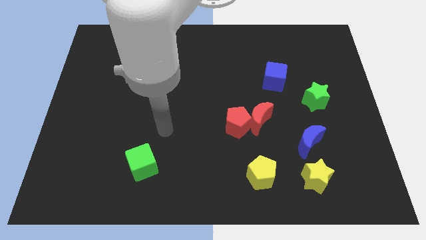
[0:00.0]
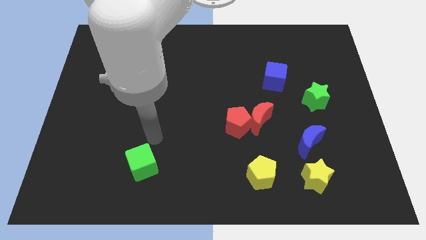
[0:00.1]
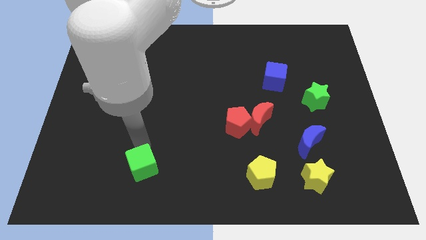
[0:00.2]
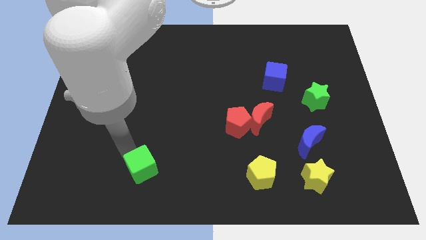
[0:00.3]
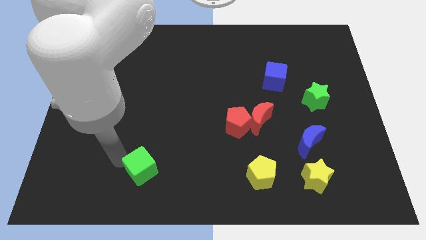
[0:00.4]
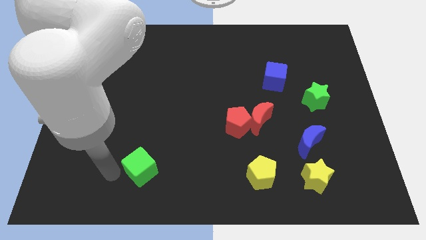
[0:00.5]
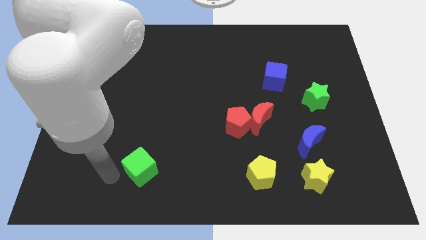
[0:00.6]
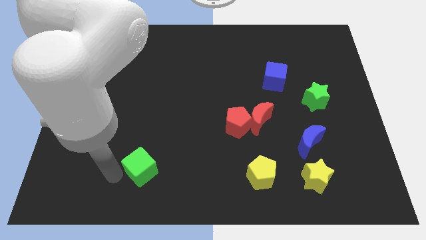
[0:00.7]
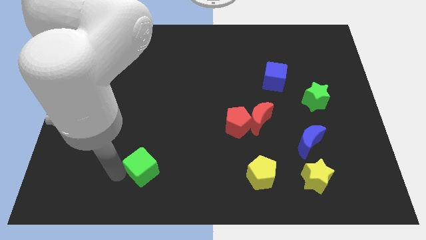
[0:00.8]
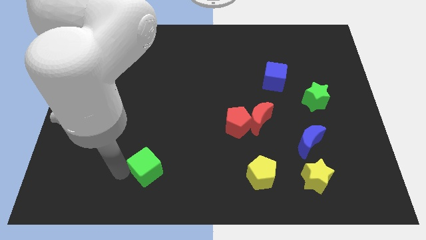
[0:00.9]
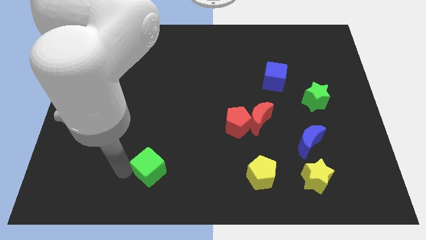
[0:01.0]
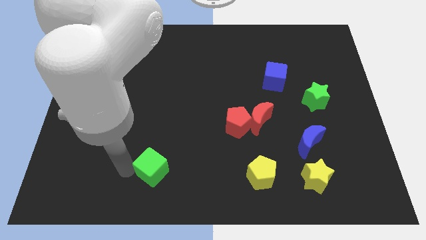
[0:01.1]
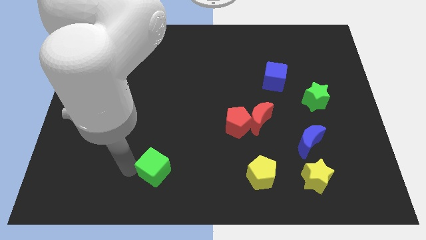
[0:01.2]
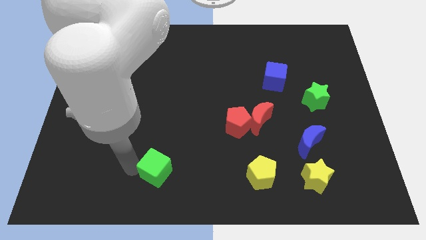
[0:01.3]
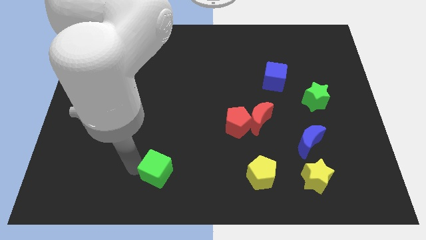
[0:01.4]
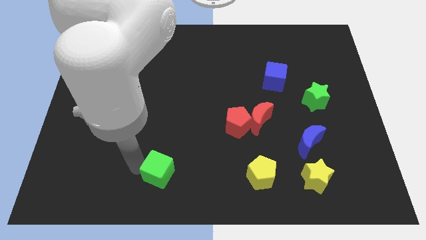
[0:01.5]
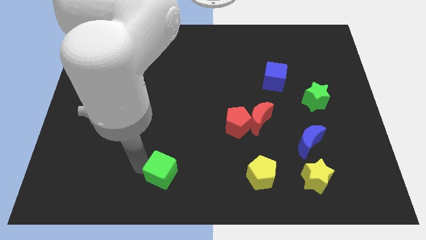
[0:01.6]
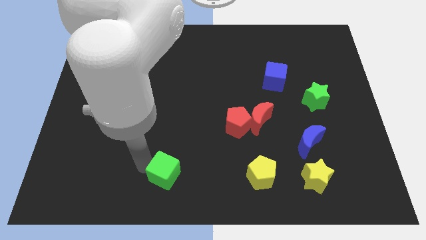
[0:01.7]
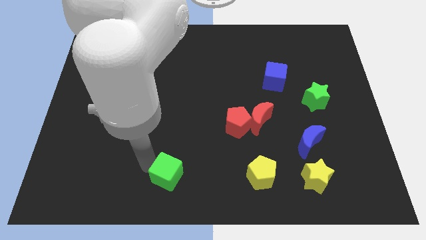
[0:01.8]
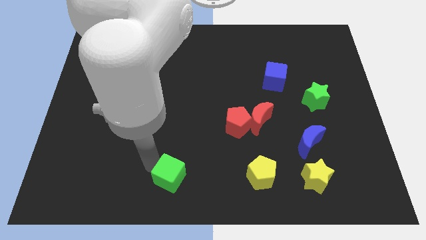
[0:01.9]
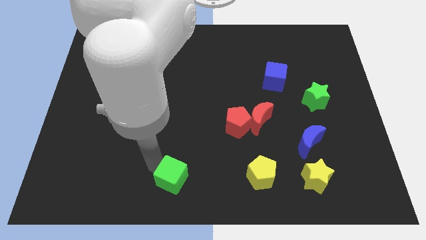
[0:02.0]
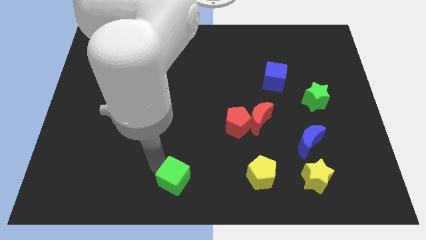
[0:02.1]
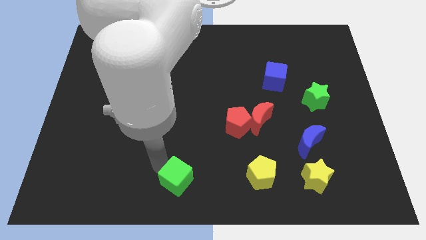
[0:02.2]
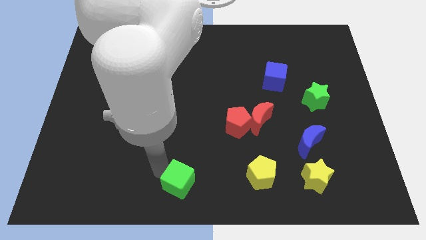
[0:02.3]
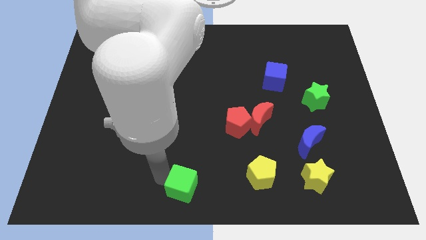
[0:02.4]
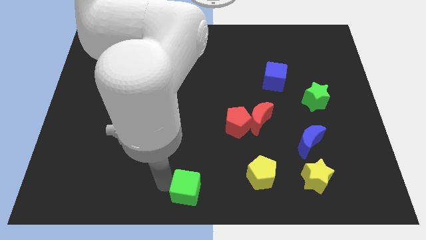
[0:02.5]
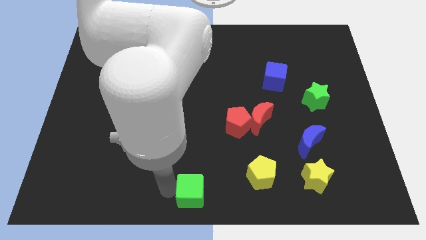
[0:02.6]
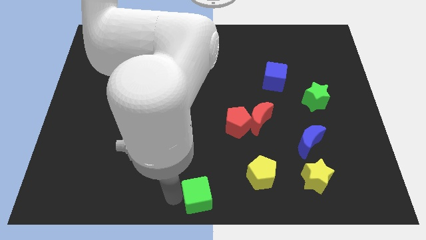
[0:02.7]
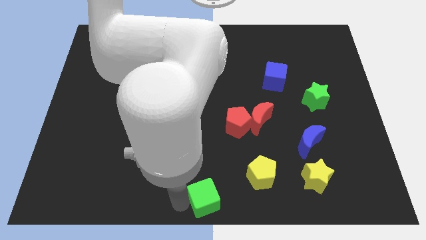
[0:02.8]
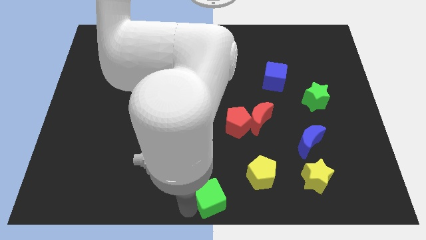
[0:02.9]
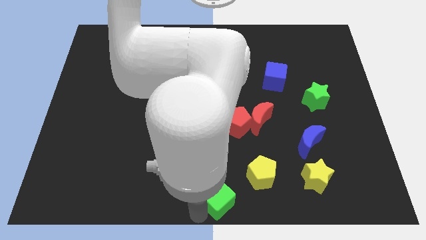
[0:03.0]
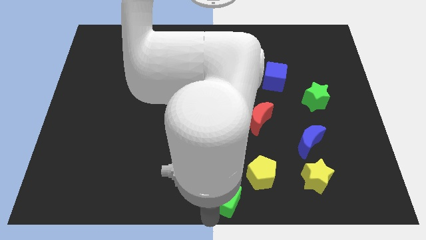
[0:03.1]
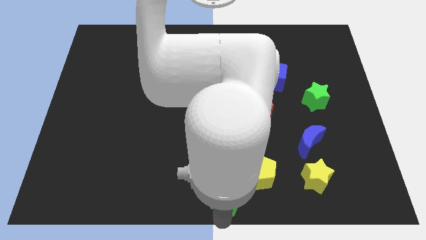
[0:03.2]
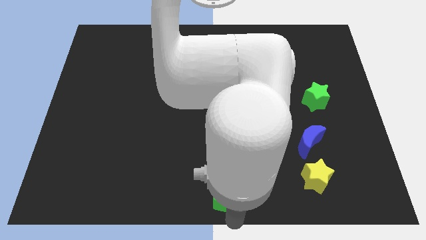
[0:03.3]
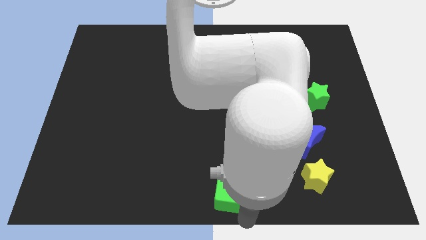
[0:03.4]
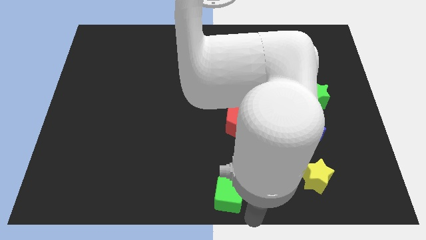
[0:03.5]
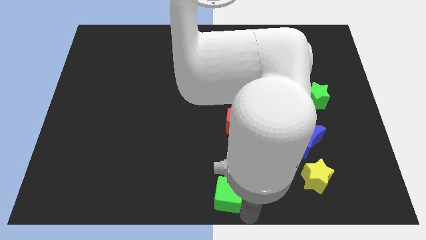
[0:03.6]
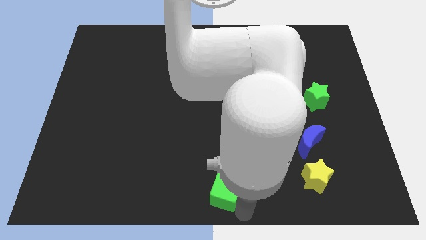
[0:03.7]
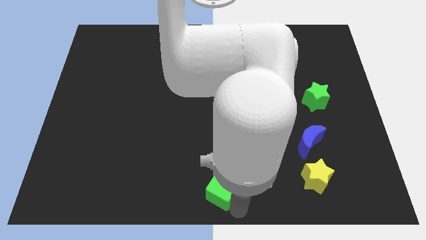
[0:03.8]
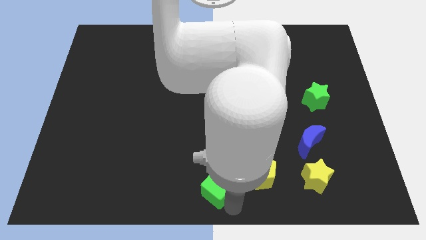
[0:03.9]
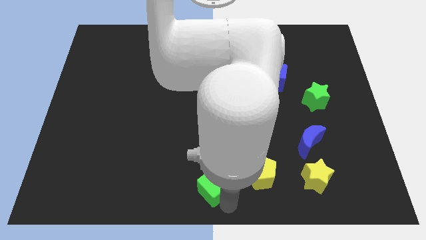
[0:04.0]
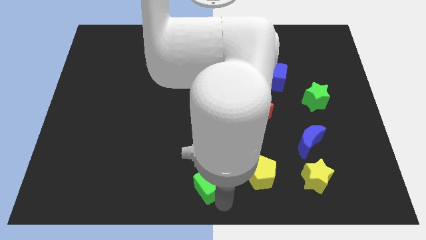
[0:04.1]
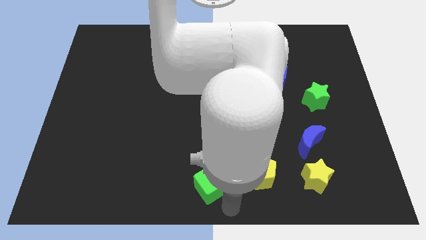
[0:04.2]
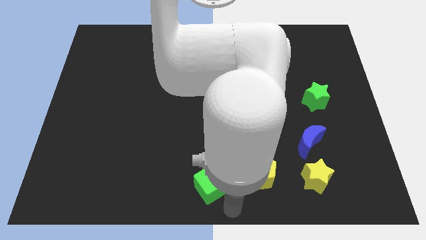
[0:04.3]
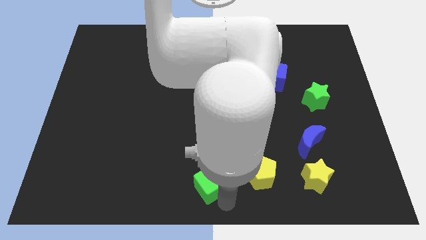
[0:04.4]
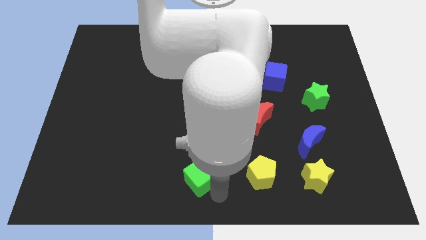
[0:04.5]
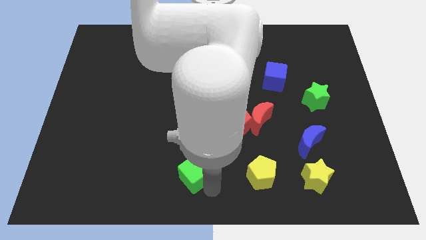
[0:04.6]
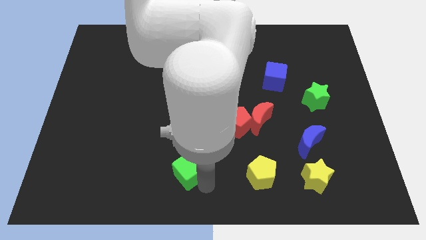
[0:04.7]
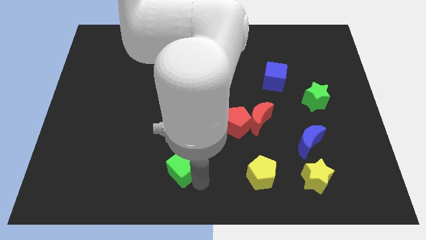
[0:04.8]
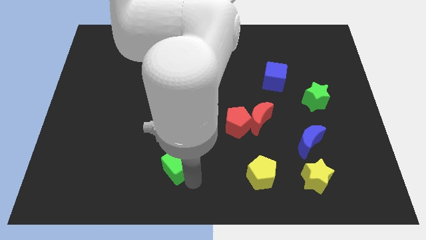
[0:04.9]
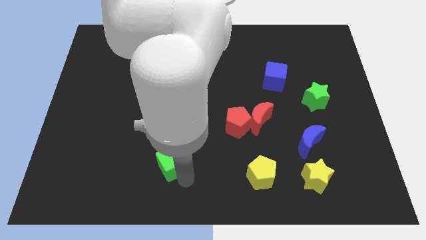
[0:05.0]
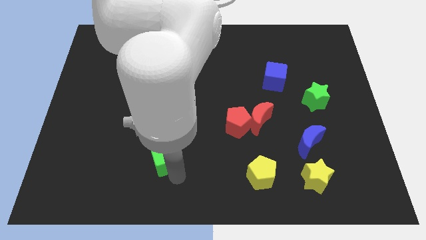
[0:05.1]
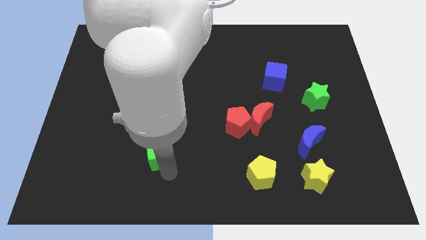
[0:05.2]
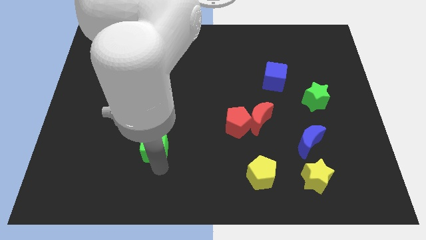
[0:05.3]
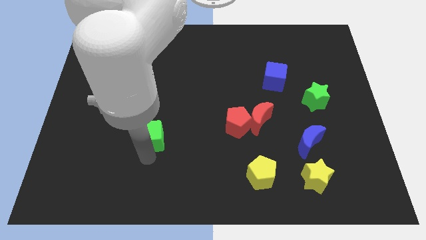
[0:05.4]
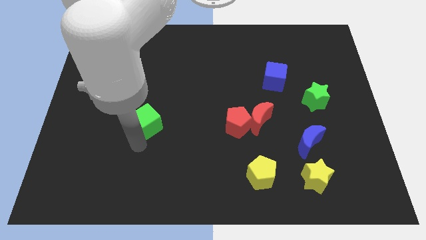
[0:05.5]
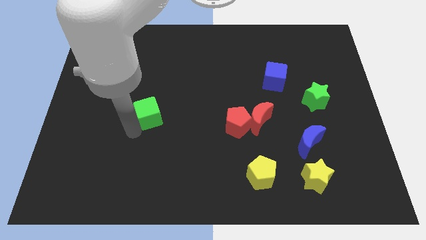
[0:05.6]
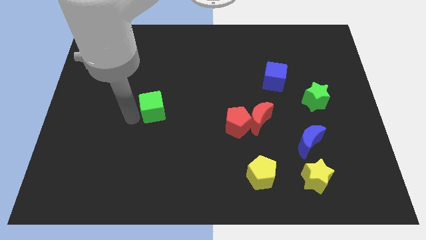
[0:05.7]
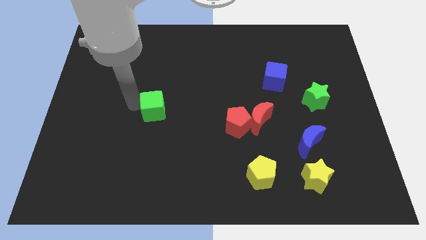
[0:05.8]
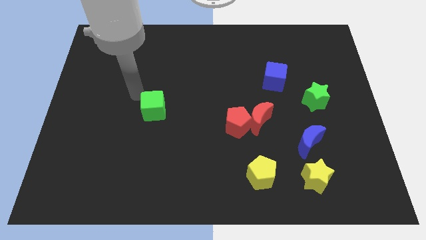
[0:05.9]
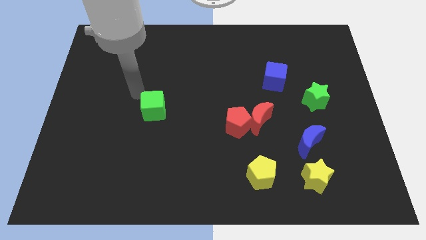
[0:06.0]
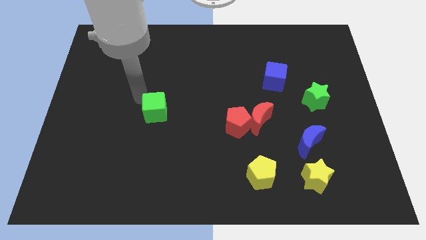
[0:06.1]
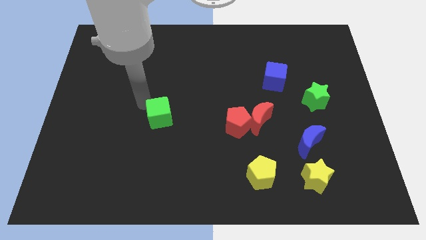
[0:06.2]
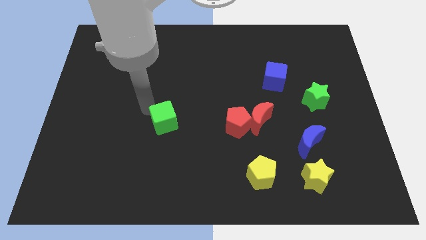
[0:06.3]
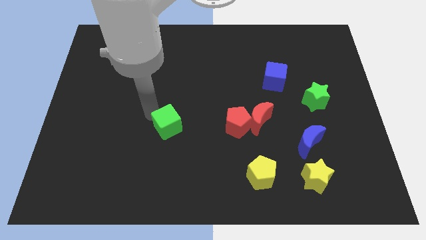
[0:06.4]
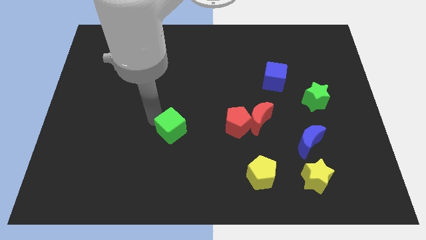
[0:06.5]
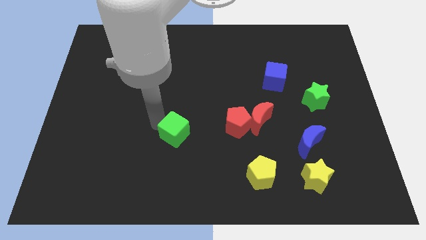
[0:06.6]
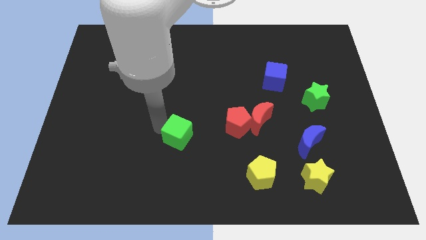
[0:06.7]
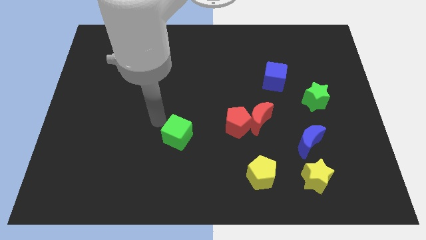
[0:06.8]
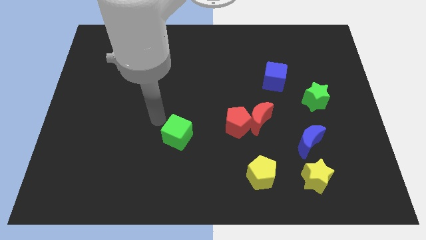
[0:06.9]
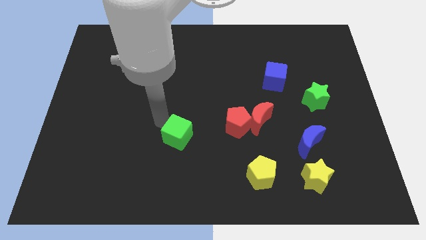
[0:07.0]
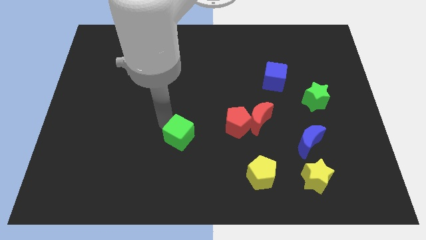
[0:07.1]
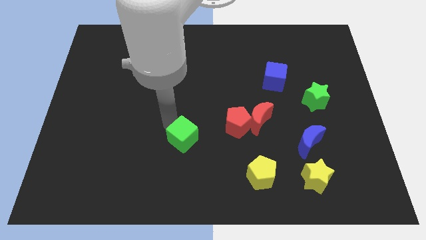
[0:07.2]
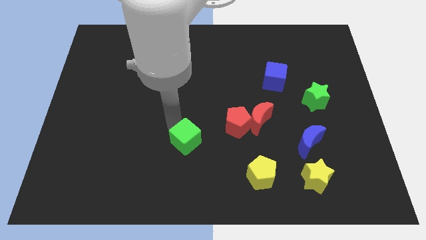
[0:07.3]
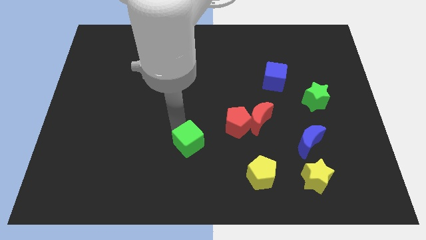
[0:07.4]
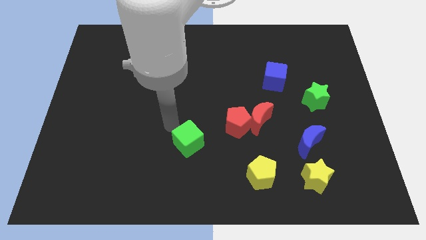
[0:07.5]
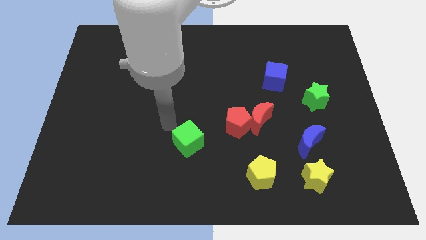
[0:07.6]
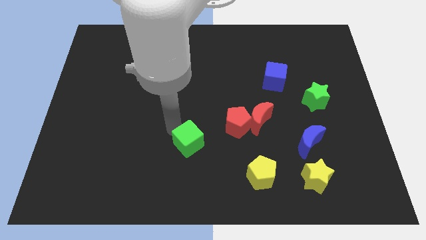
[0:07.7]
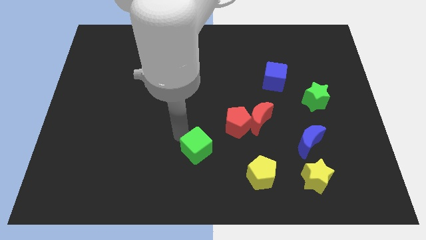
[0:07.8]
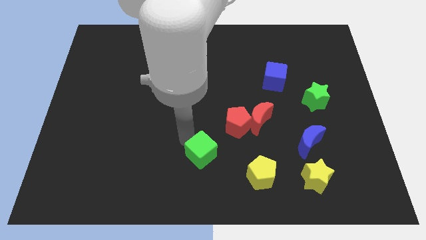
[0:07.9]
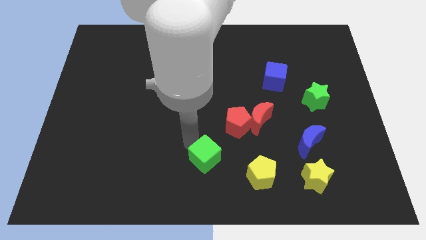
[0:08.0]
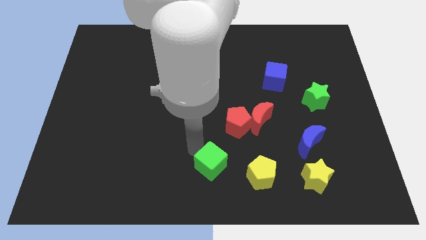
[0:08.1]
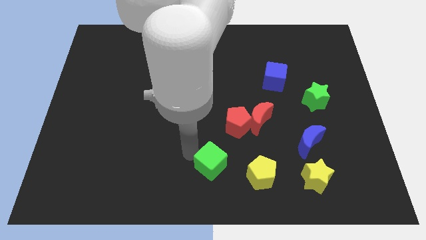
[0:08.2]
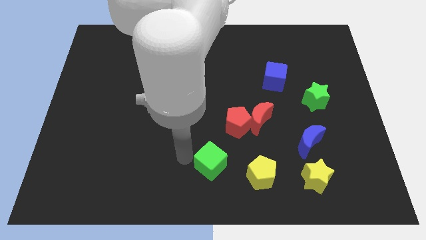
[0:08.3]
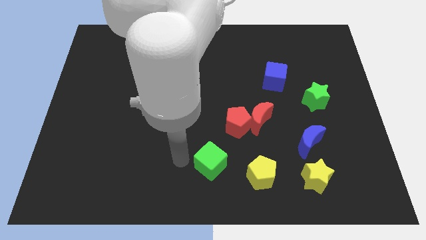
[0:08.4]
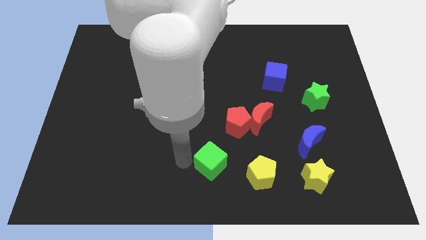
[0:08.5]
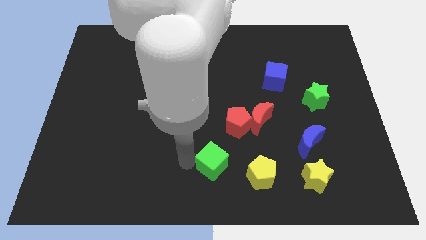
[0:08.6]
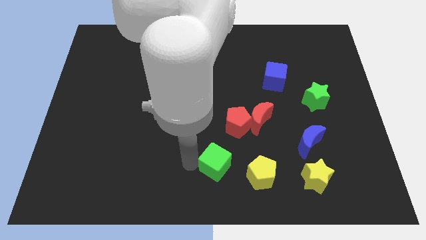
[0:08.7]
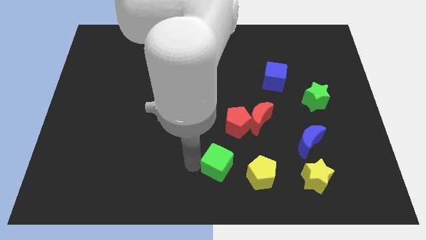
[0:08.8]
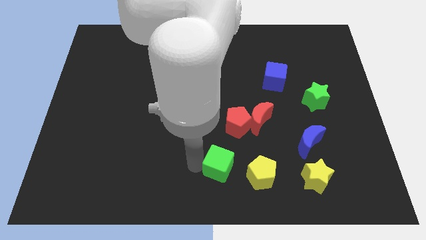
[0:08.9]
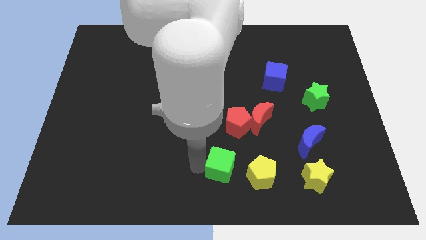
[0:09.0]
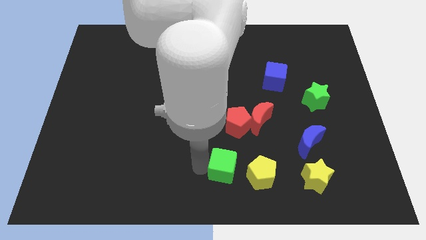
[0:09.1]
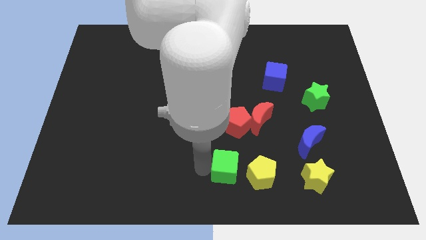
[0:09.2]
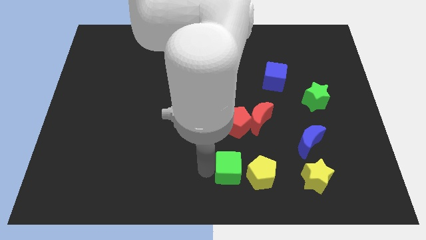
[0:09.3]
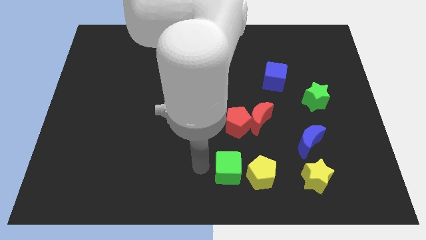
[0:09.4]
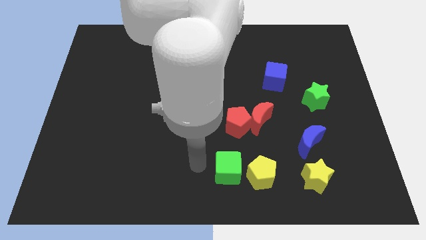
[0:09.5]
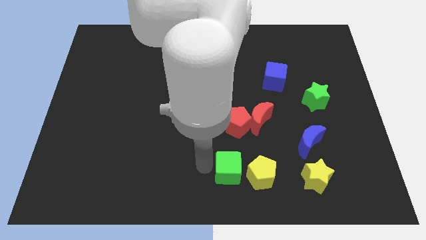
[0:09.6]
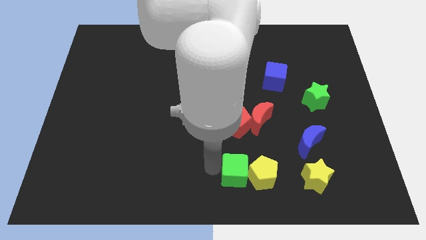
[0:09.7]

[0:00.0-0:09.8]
slide the green cube towards the yellow pentagon
